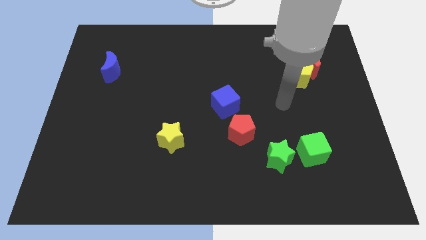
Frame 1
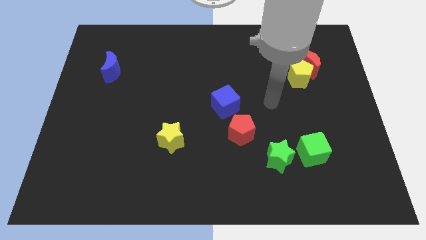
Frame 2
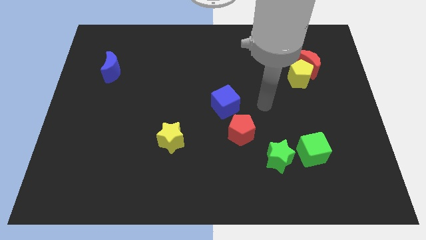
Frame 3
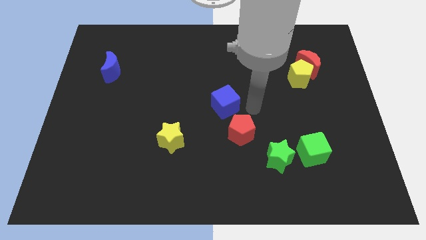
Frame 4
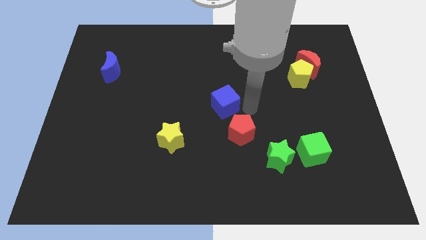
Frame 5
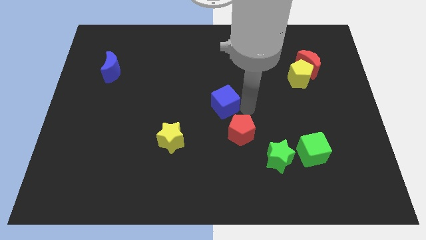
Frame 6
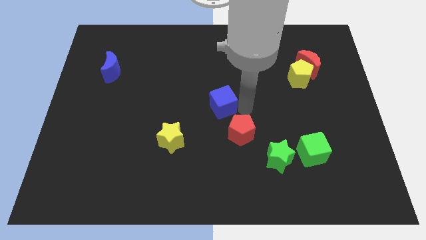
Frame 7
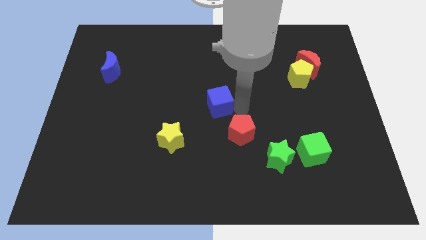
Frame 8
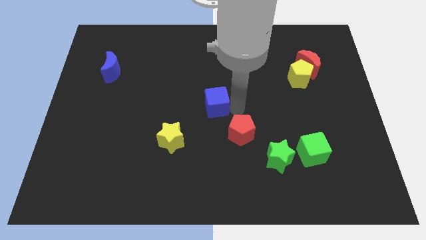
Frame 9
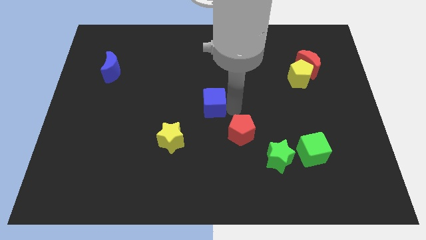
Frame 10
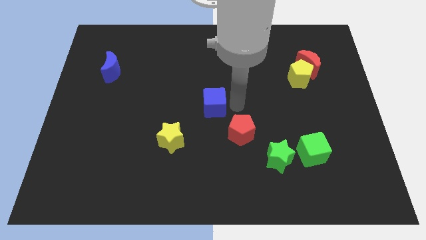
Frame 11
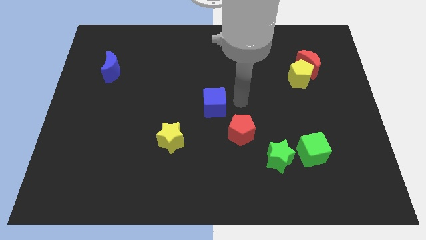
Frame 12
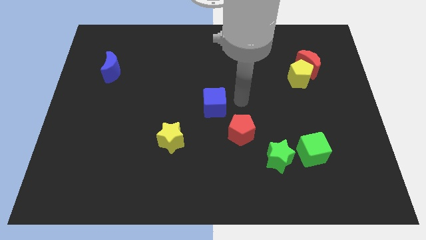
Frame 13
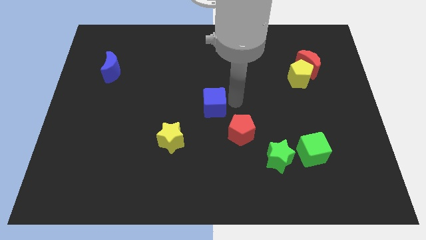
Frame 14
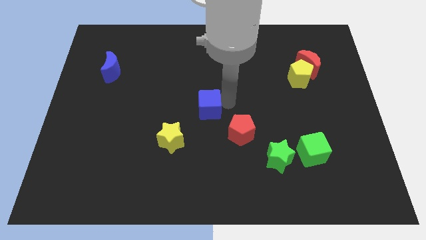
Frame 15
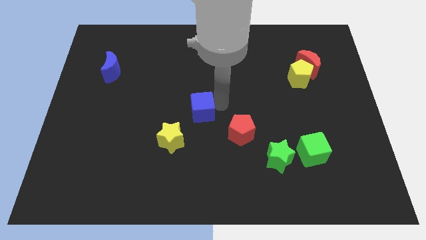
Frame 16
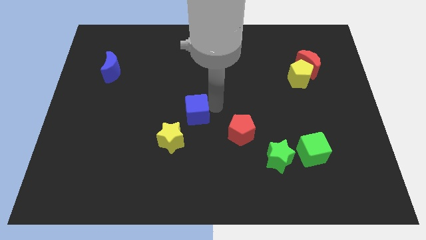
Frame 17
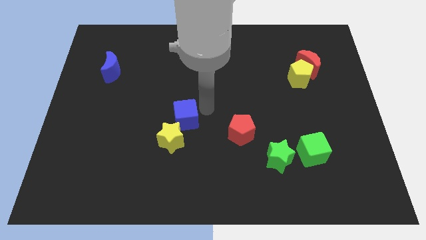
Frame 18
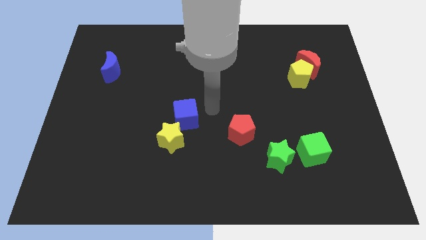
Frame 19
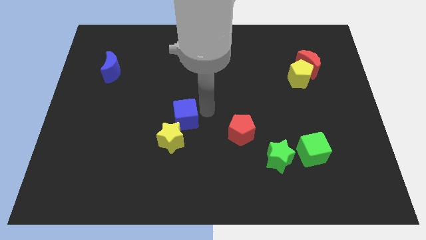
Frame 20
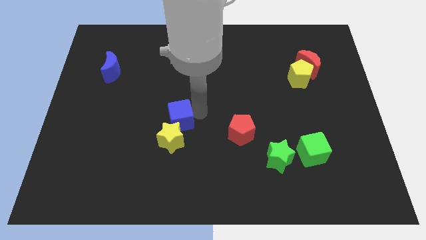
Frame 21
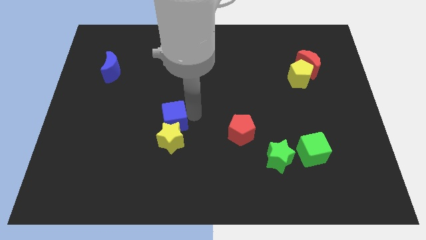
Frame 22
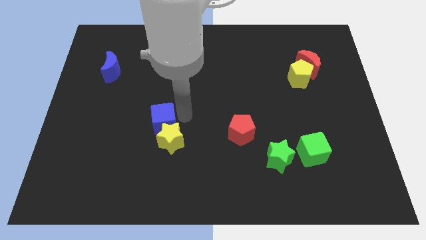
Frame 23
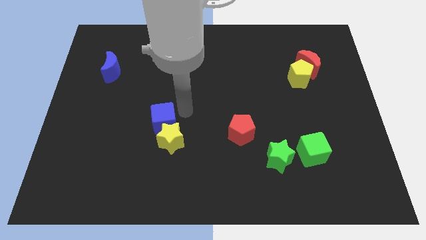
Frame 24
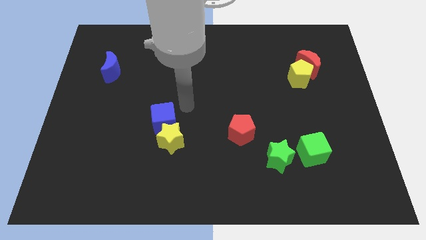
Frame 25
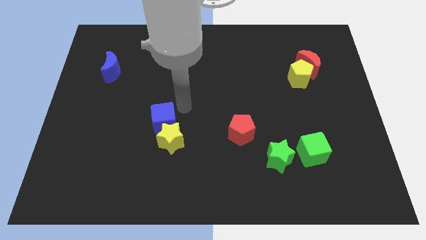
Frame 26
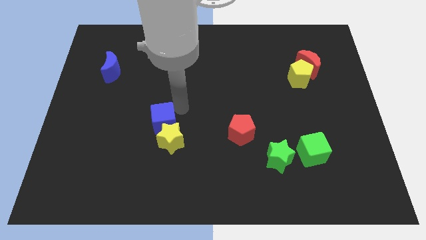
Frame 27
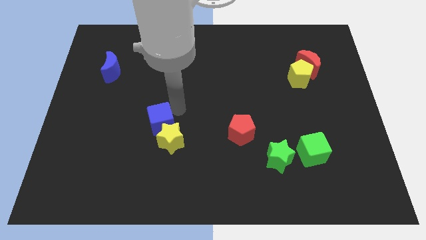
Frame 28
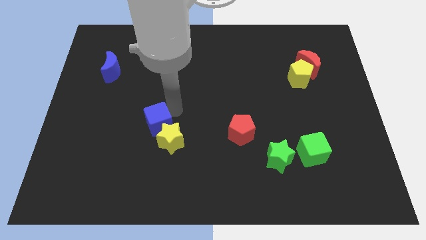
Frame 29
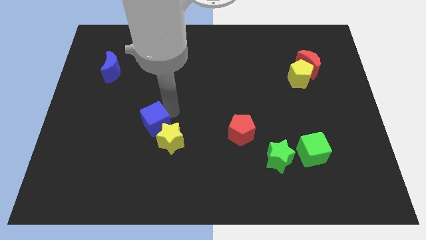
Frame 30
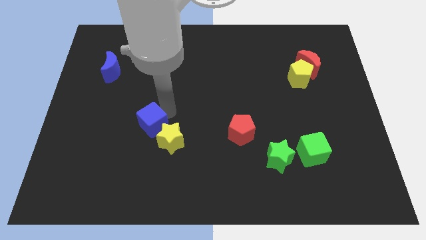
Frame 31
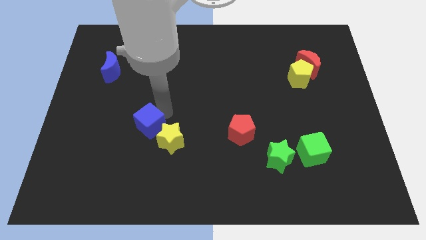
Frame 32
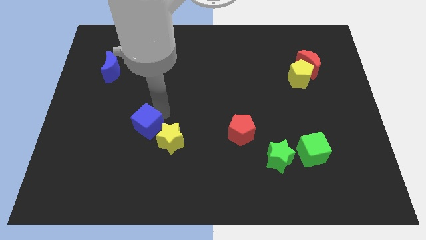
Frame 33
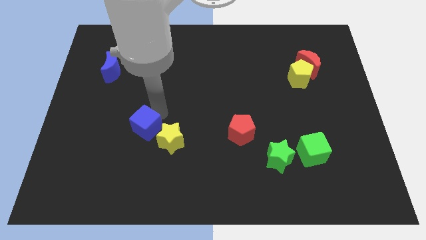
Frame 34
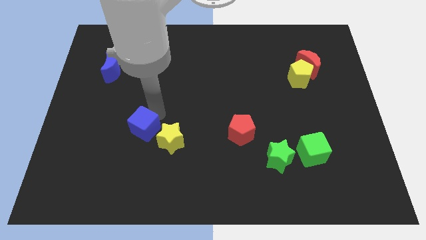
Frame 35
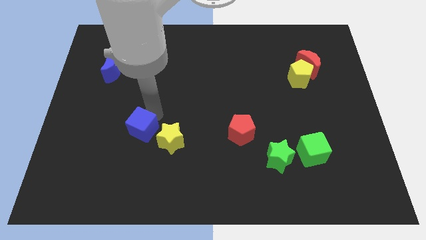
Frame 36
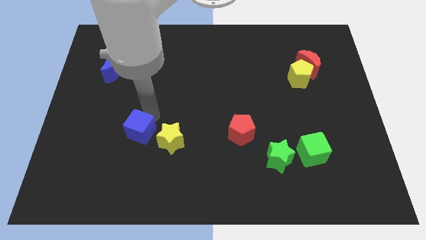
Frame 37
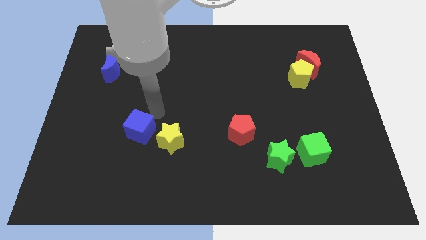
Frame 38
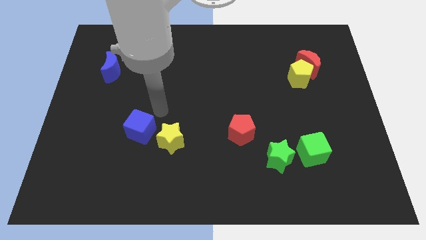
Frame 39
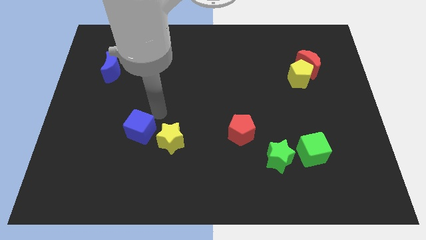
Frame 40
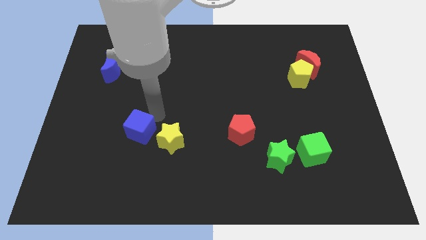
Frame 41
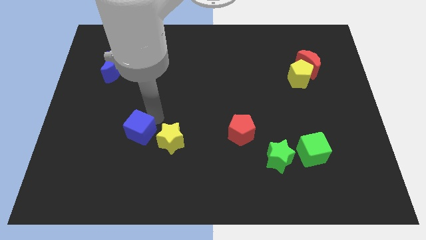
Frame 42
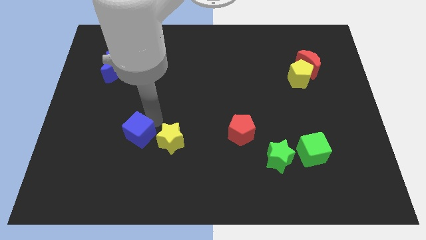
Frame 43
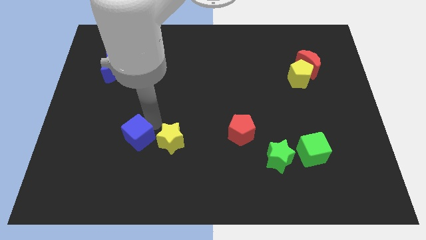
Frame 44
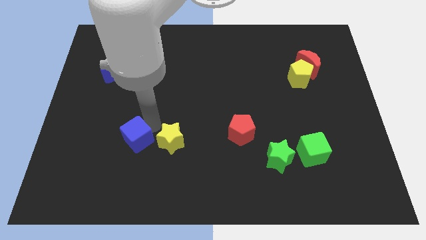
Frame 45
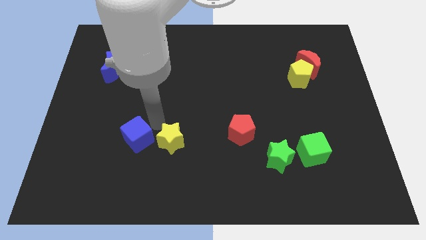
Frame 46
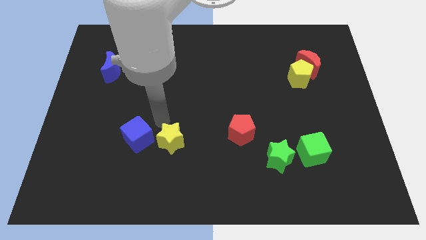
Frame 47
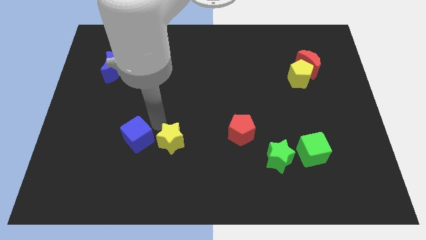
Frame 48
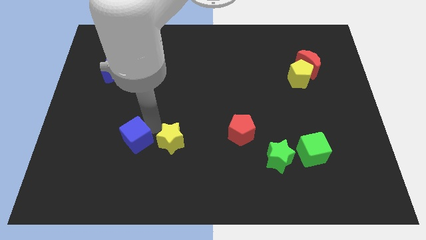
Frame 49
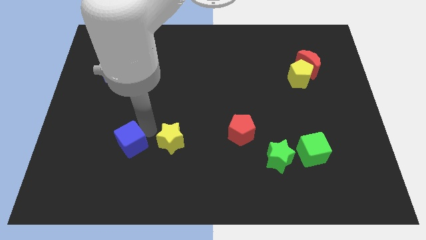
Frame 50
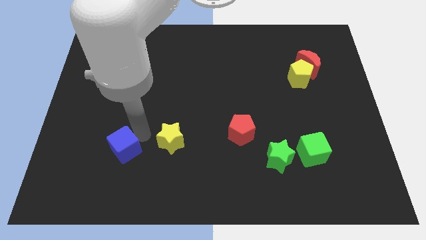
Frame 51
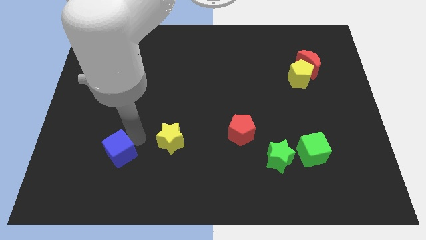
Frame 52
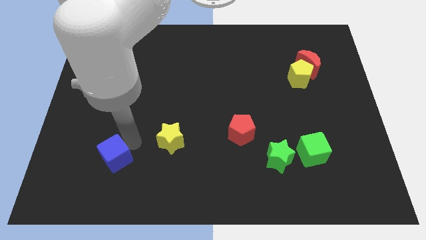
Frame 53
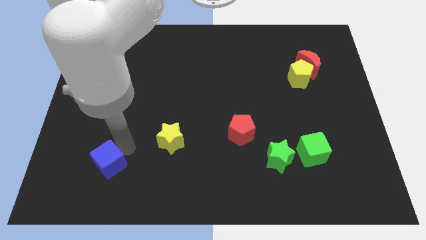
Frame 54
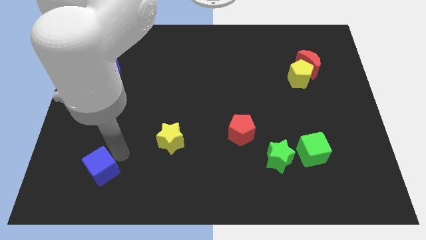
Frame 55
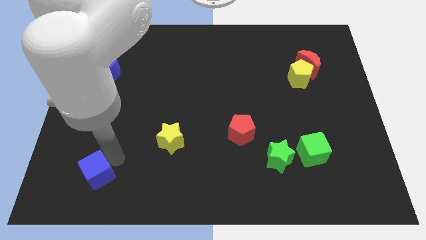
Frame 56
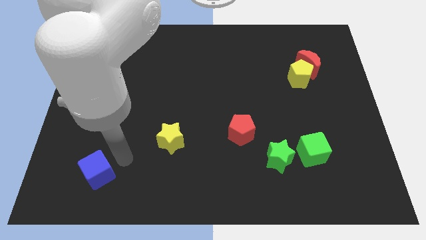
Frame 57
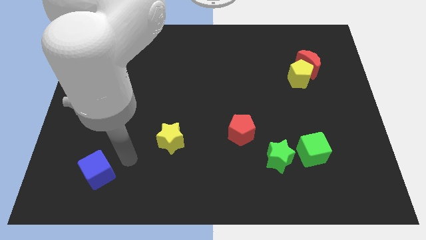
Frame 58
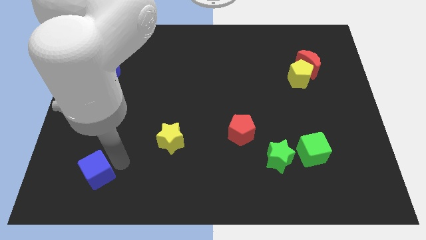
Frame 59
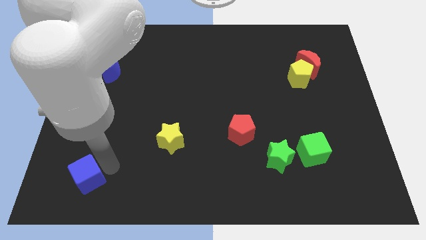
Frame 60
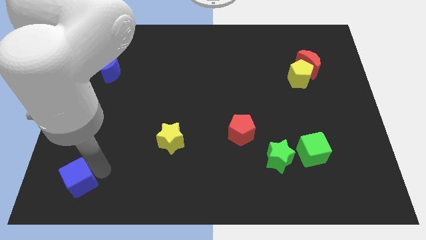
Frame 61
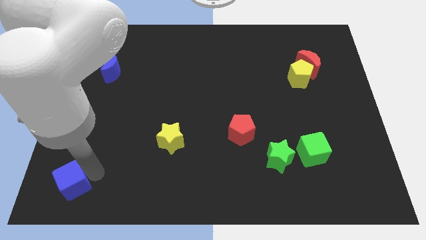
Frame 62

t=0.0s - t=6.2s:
move the blue cube to the bottom left of the board
